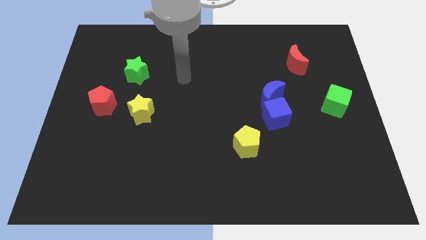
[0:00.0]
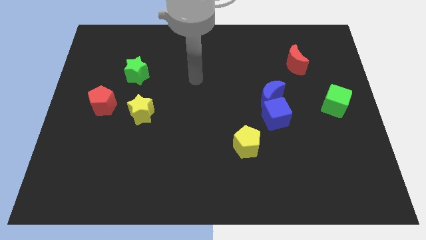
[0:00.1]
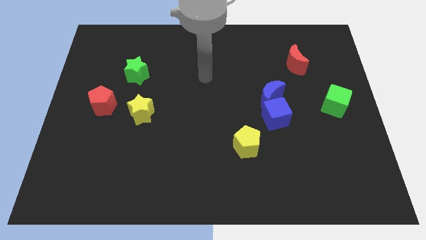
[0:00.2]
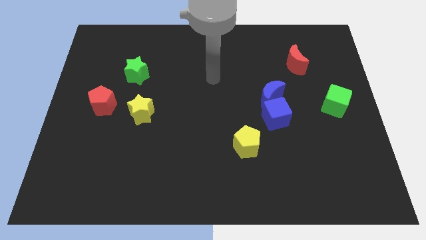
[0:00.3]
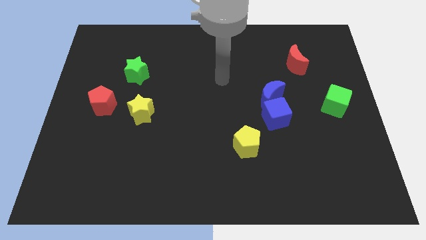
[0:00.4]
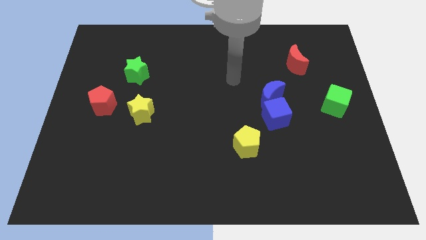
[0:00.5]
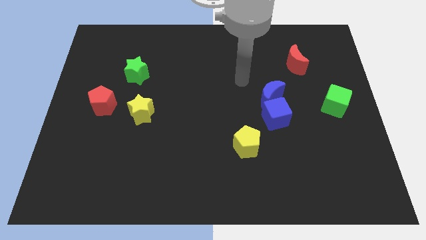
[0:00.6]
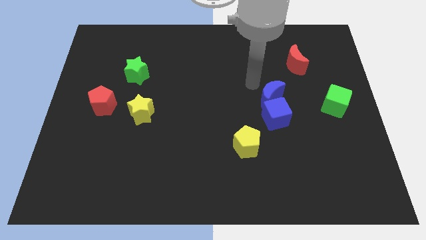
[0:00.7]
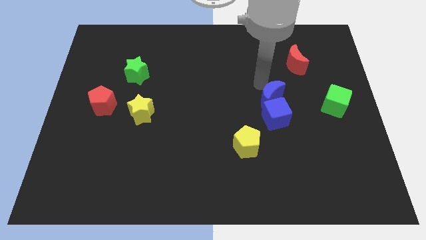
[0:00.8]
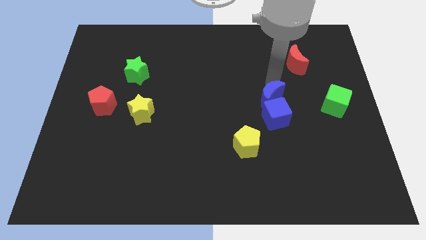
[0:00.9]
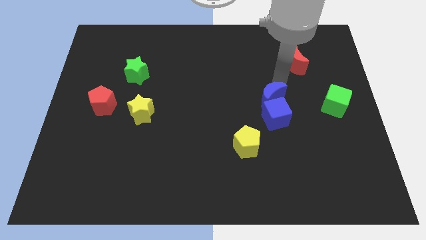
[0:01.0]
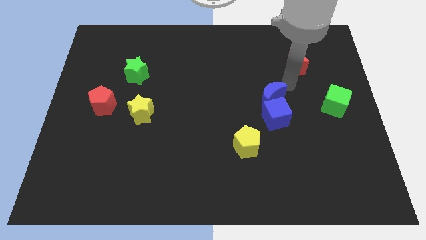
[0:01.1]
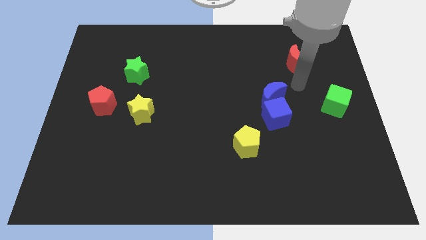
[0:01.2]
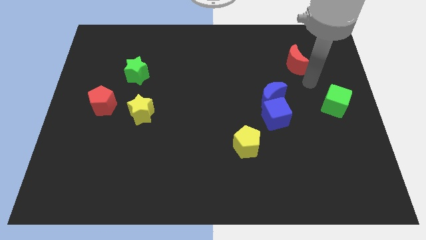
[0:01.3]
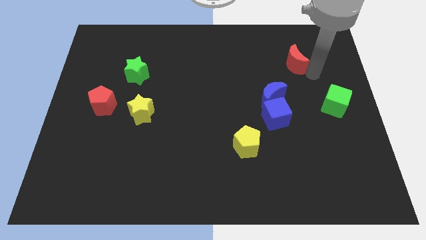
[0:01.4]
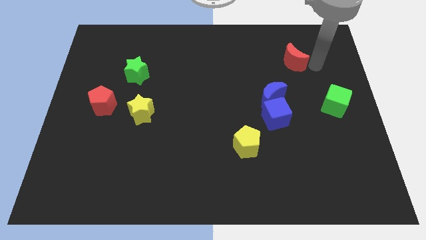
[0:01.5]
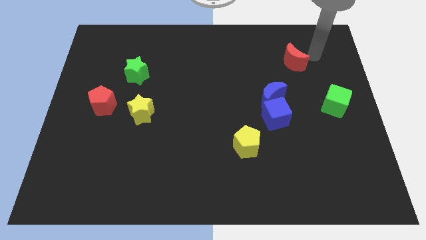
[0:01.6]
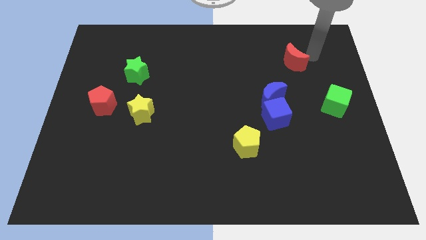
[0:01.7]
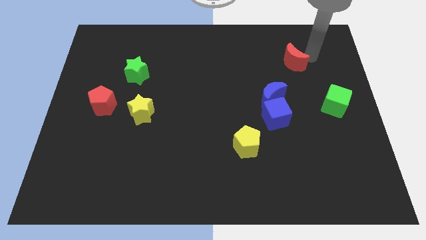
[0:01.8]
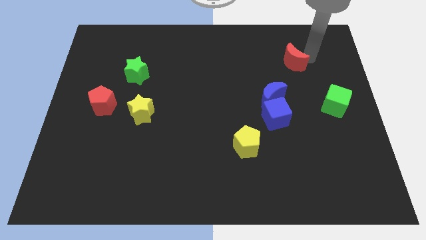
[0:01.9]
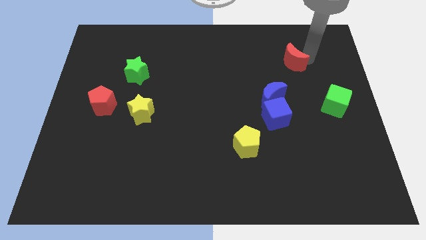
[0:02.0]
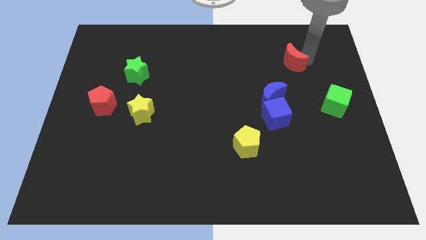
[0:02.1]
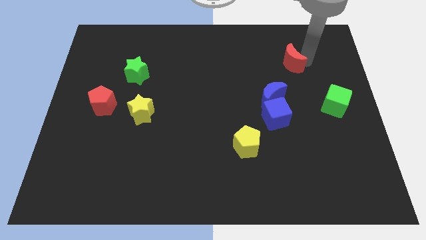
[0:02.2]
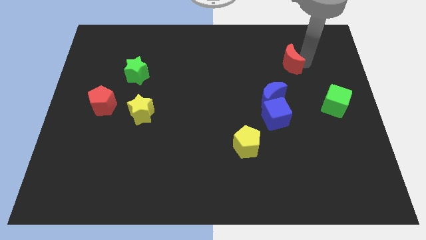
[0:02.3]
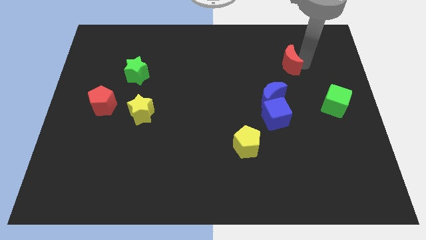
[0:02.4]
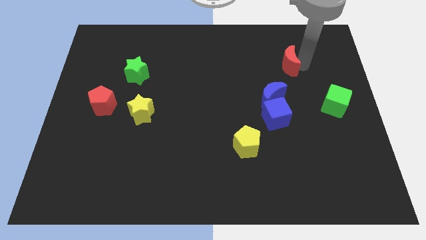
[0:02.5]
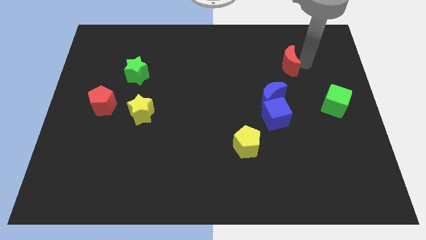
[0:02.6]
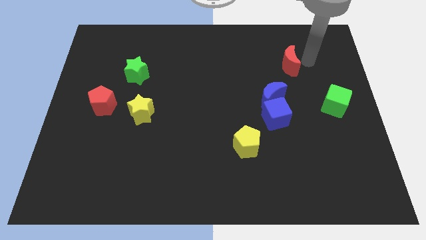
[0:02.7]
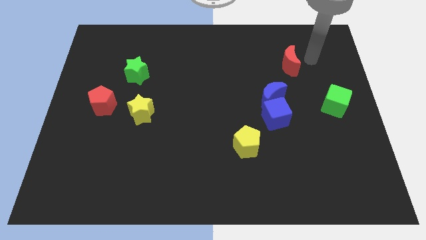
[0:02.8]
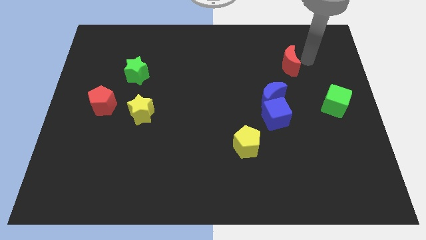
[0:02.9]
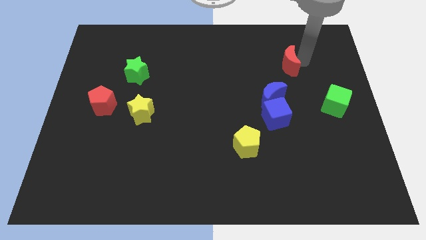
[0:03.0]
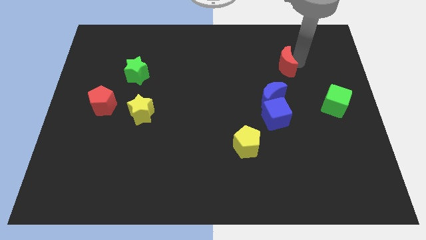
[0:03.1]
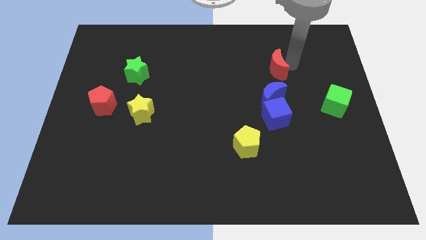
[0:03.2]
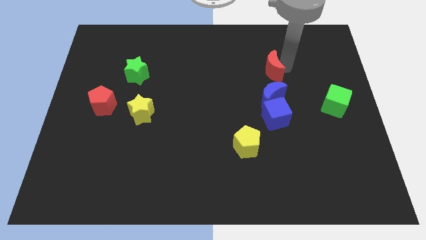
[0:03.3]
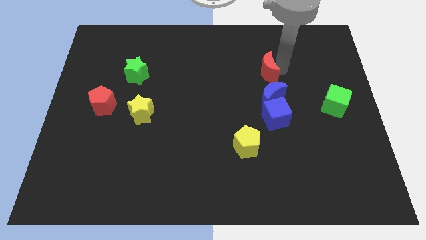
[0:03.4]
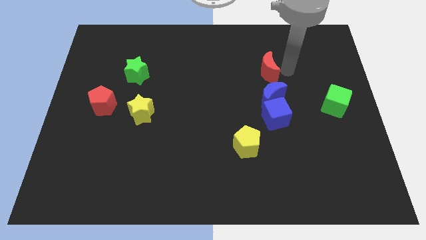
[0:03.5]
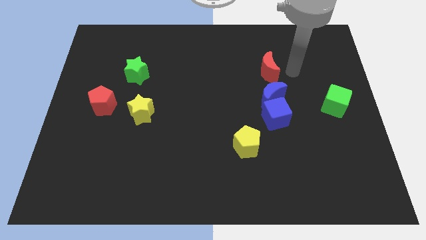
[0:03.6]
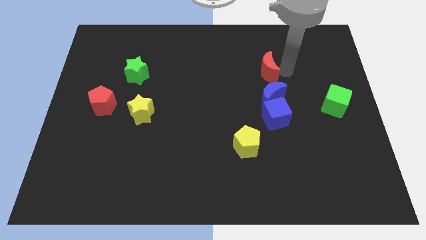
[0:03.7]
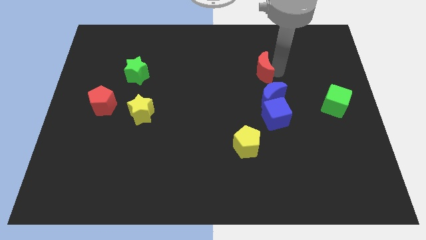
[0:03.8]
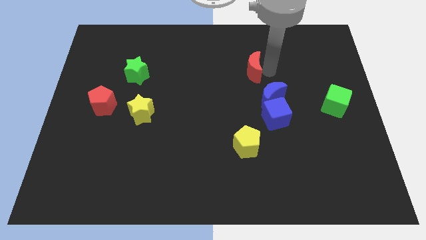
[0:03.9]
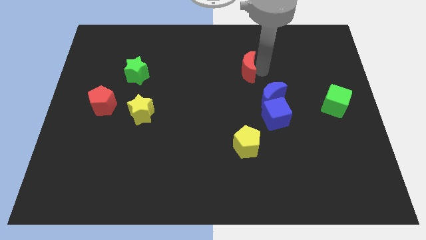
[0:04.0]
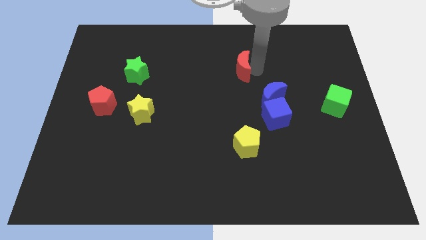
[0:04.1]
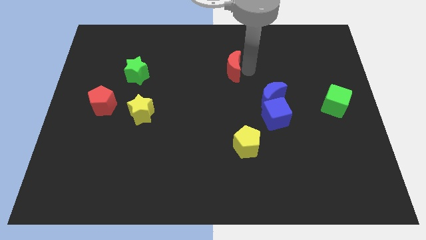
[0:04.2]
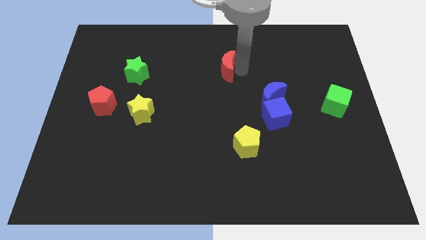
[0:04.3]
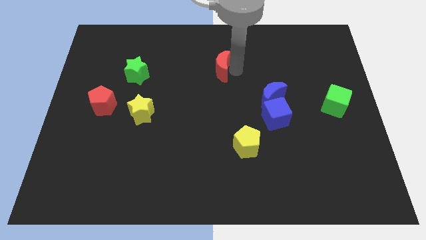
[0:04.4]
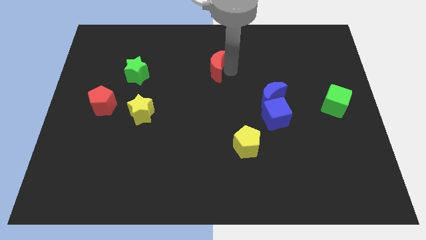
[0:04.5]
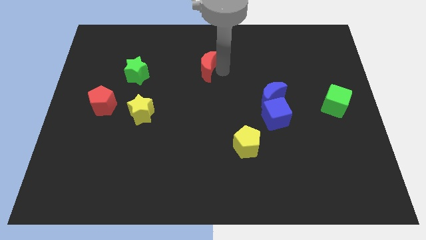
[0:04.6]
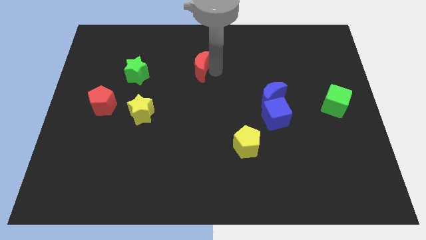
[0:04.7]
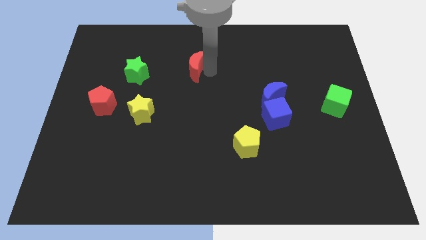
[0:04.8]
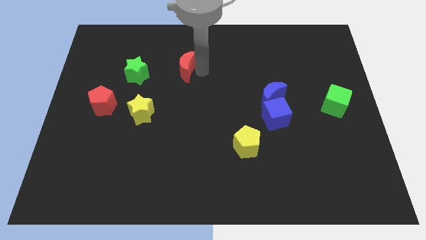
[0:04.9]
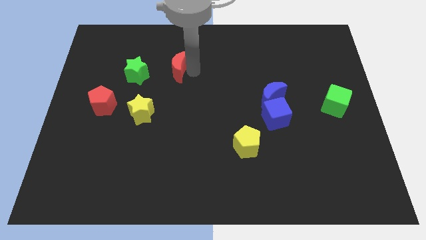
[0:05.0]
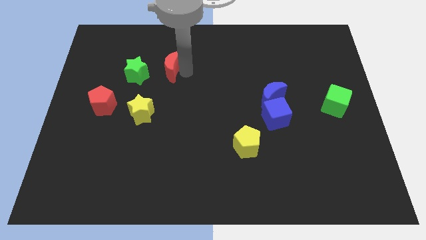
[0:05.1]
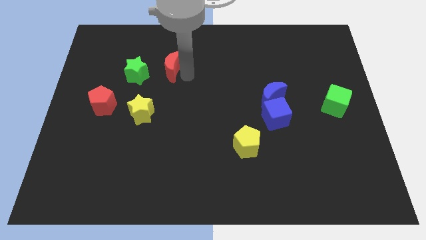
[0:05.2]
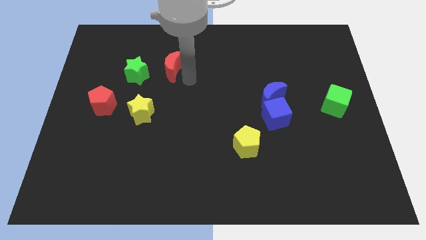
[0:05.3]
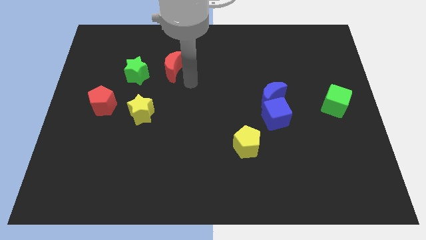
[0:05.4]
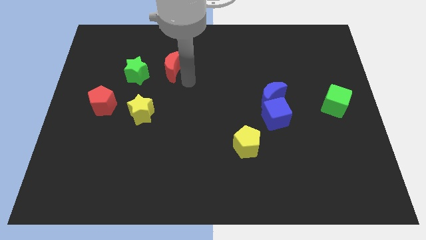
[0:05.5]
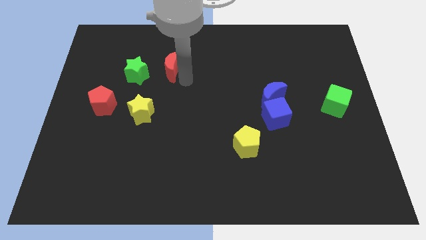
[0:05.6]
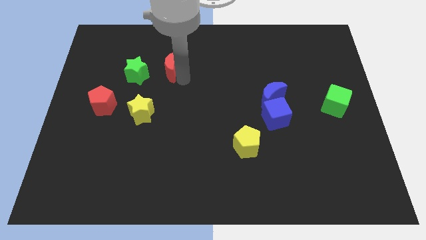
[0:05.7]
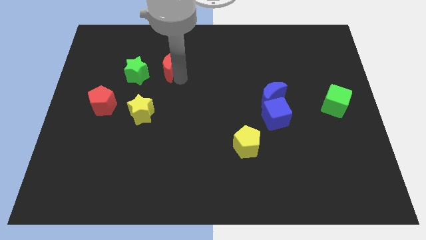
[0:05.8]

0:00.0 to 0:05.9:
move the red moon to the top right side of the green star

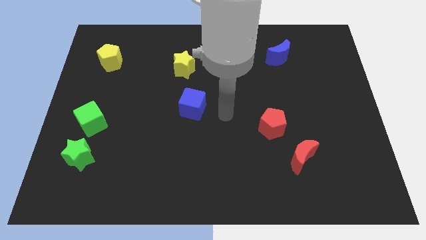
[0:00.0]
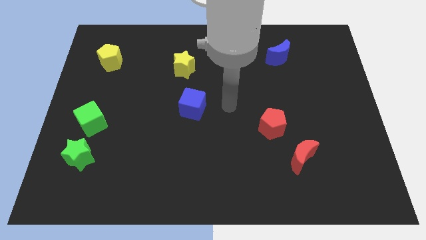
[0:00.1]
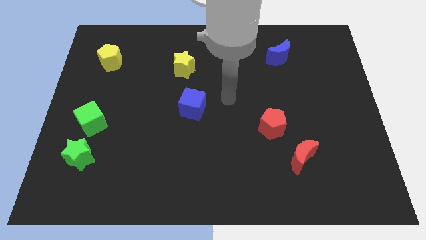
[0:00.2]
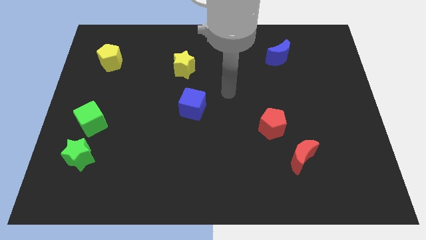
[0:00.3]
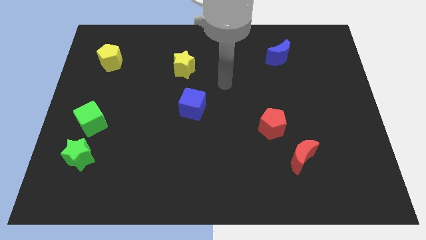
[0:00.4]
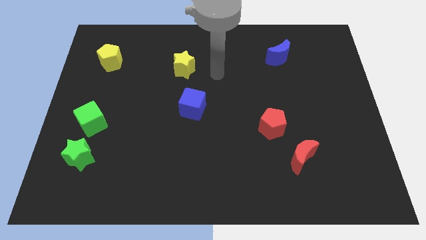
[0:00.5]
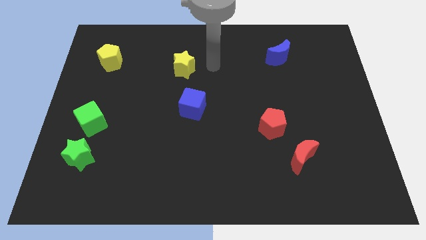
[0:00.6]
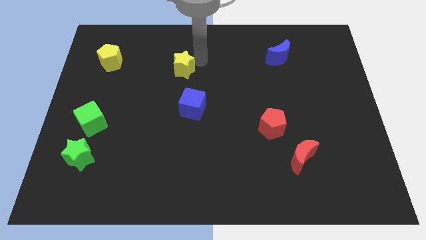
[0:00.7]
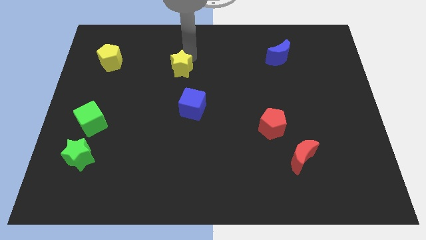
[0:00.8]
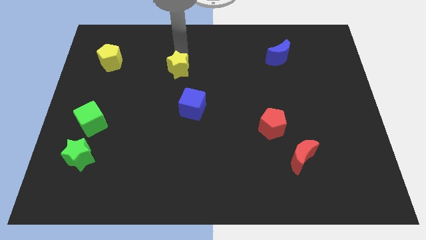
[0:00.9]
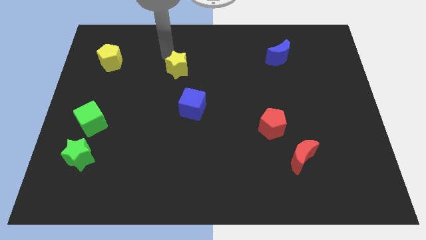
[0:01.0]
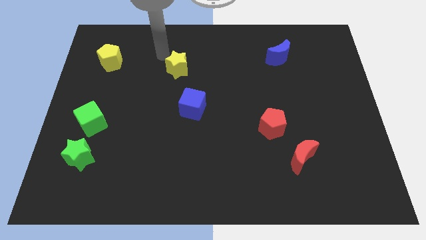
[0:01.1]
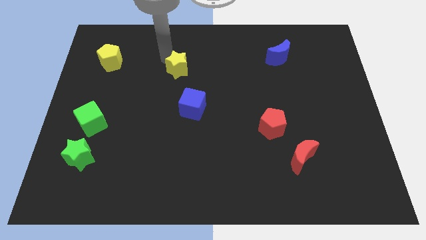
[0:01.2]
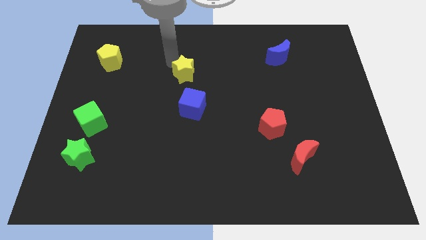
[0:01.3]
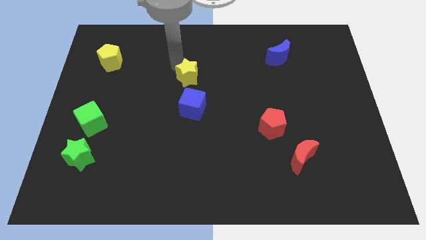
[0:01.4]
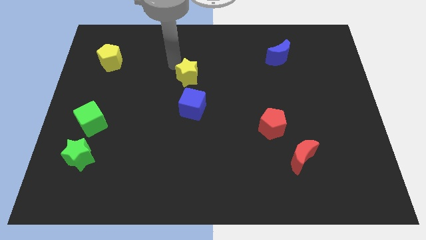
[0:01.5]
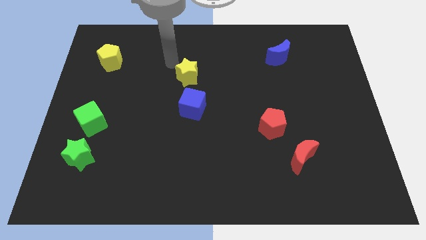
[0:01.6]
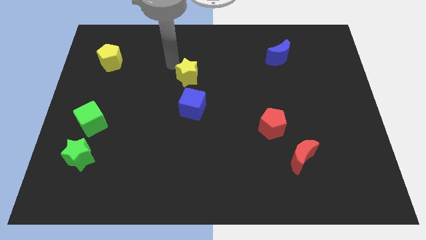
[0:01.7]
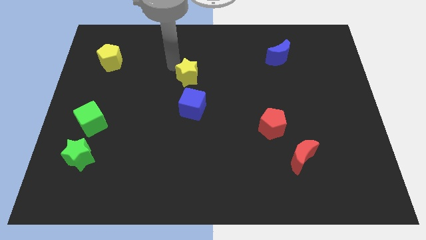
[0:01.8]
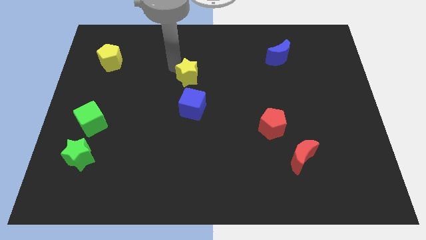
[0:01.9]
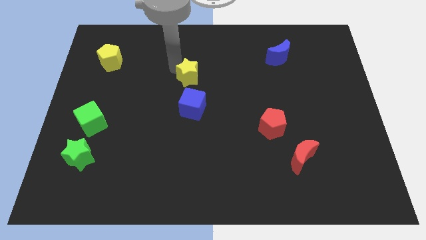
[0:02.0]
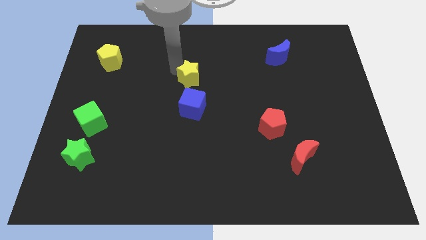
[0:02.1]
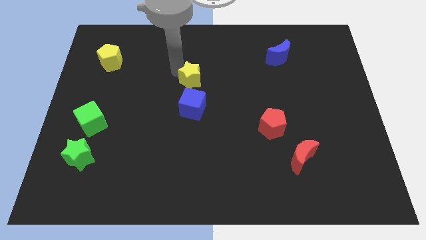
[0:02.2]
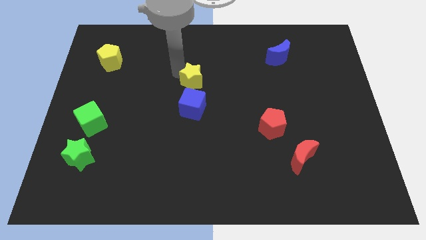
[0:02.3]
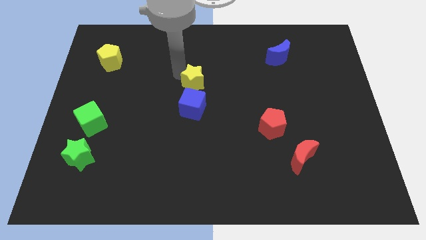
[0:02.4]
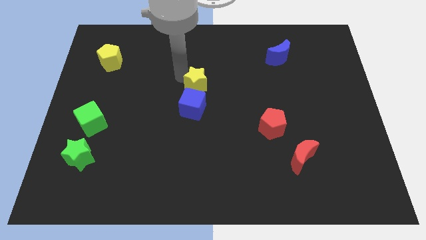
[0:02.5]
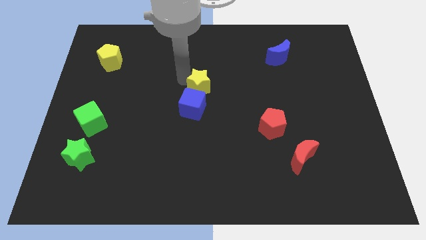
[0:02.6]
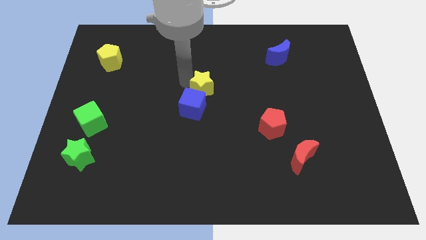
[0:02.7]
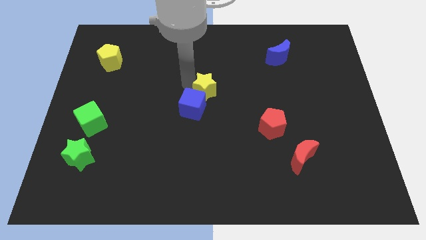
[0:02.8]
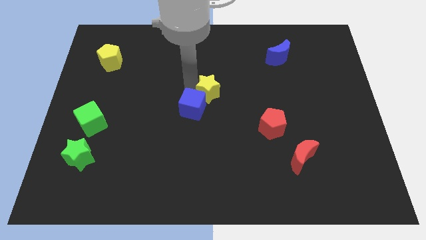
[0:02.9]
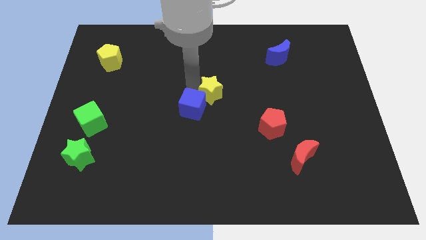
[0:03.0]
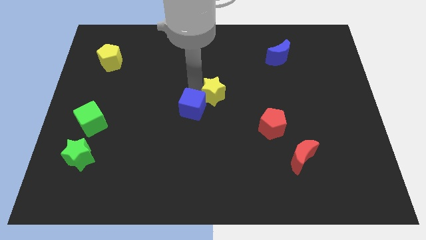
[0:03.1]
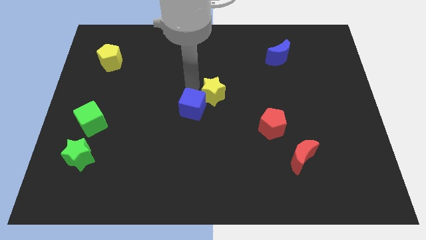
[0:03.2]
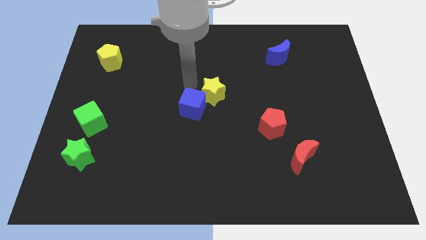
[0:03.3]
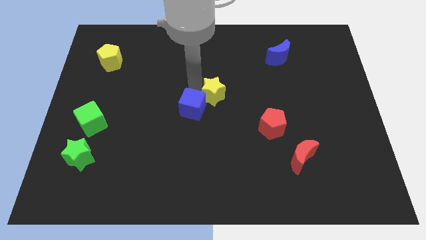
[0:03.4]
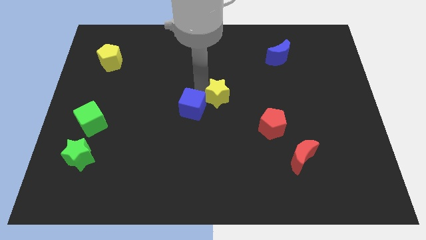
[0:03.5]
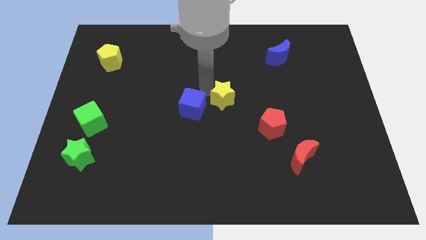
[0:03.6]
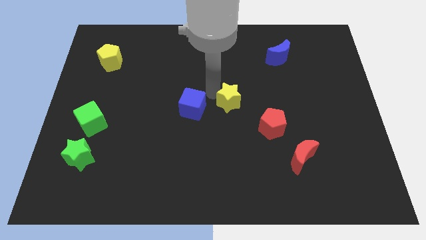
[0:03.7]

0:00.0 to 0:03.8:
put the yellow star to the top left of the red pentagon
